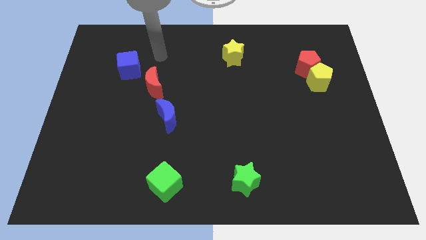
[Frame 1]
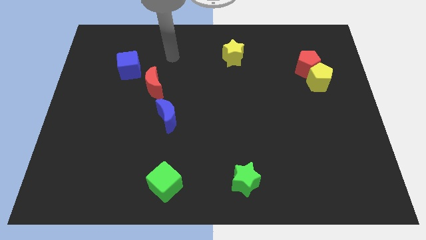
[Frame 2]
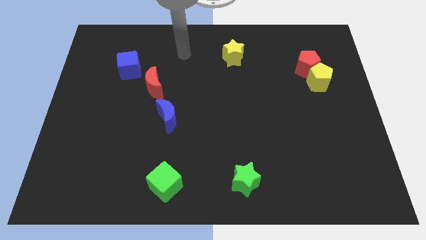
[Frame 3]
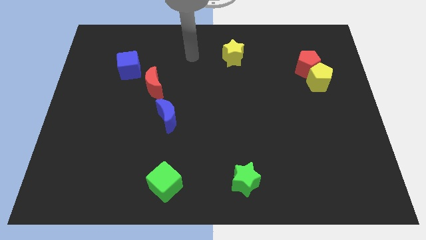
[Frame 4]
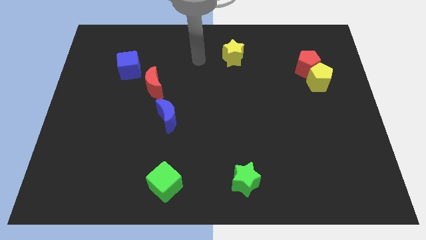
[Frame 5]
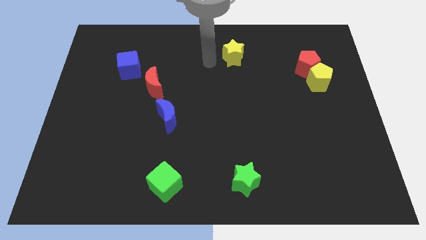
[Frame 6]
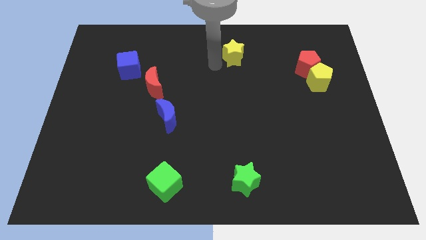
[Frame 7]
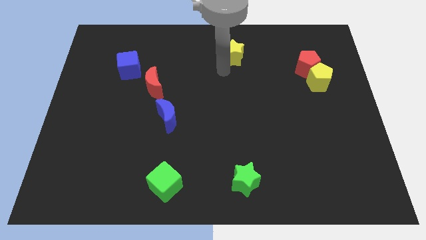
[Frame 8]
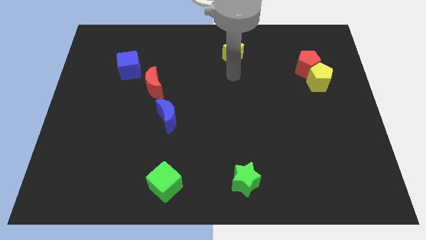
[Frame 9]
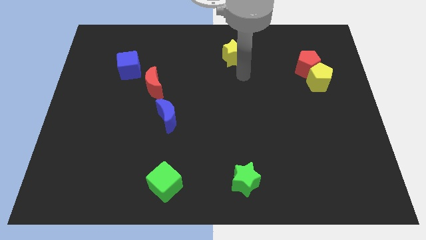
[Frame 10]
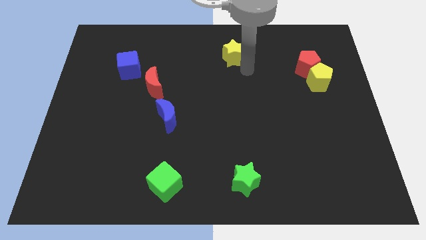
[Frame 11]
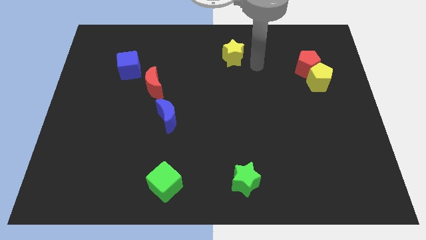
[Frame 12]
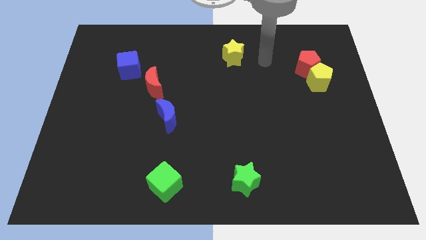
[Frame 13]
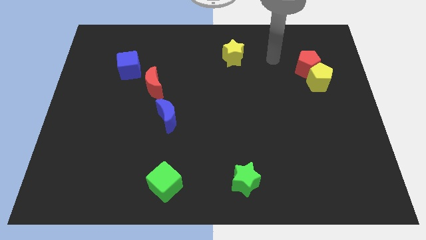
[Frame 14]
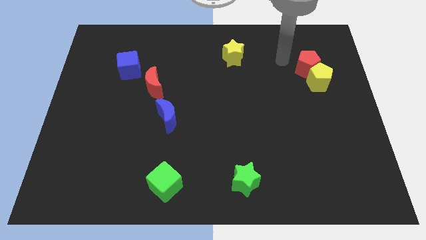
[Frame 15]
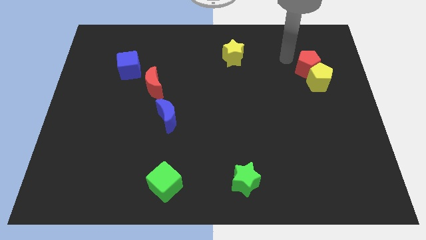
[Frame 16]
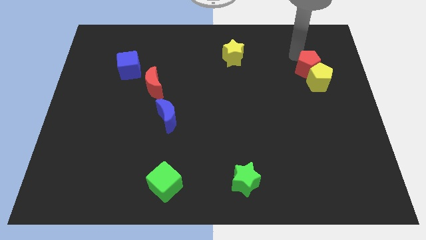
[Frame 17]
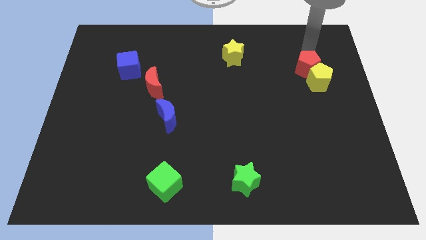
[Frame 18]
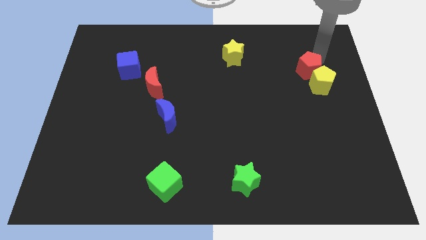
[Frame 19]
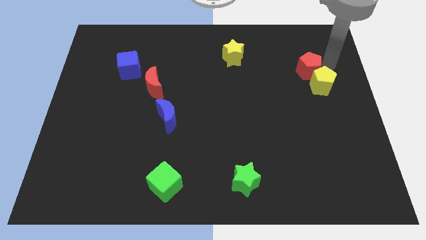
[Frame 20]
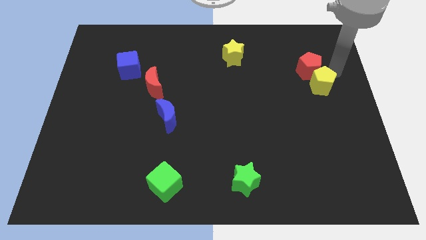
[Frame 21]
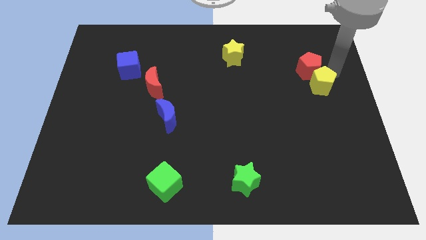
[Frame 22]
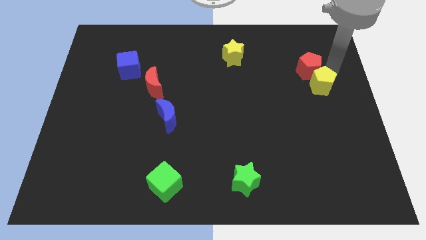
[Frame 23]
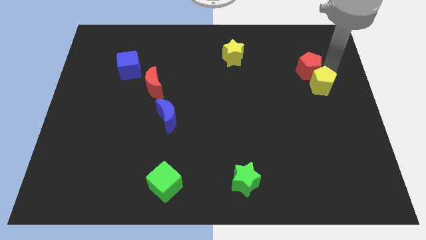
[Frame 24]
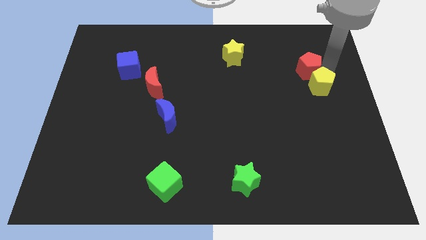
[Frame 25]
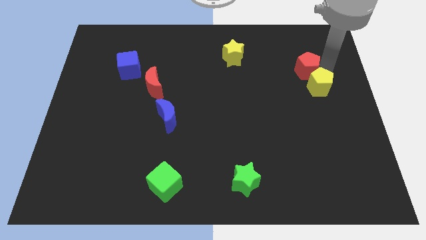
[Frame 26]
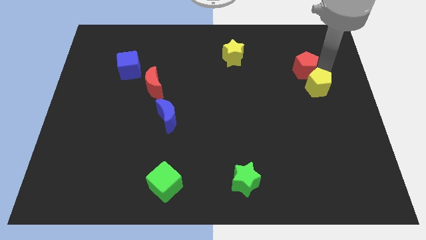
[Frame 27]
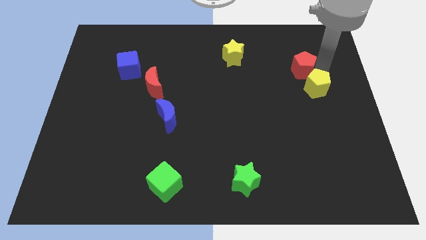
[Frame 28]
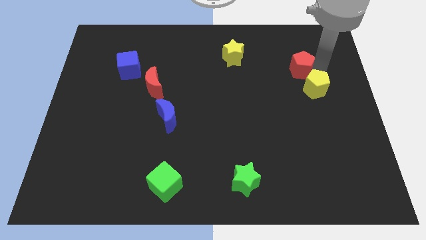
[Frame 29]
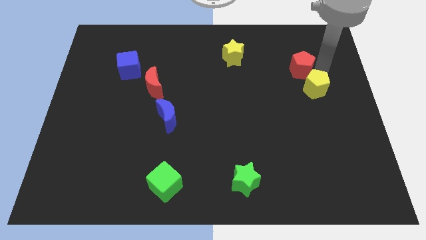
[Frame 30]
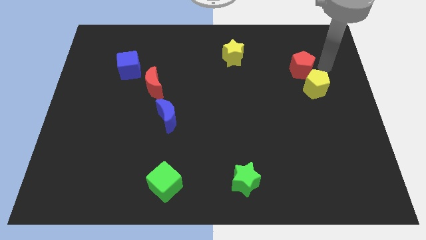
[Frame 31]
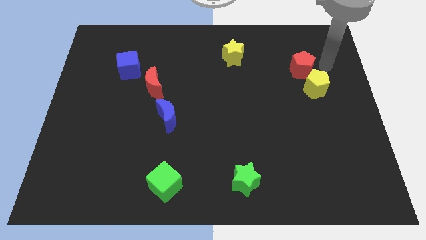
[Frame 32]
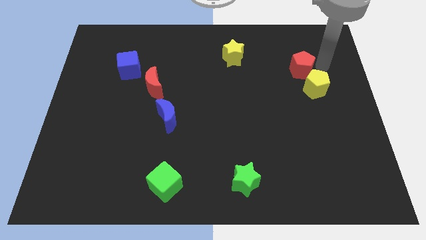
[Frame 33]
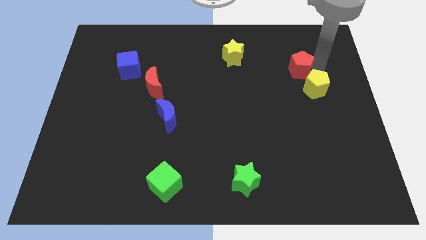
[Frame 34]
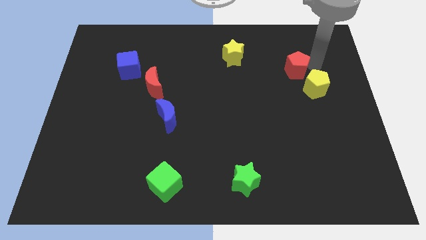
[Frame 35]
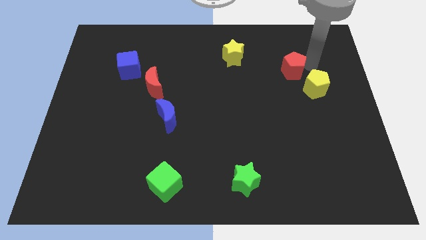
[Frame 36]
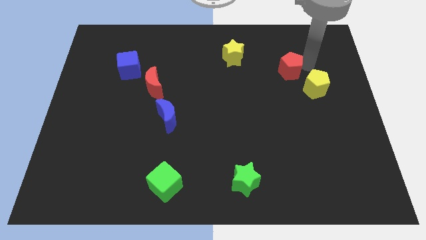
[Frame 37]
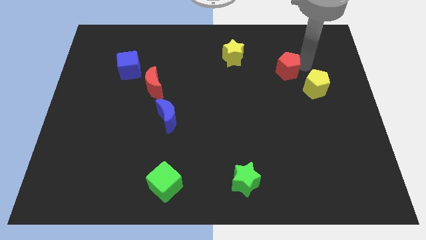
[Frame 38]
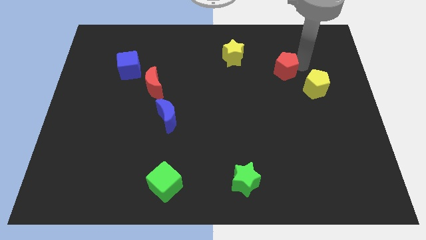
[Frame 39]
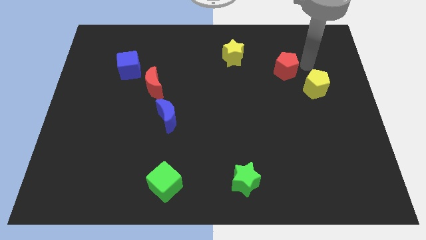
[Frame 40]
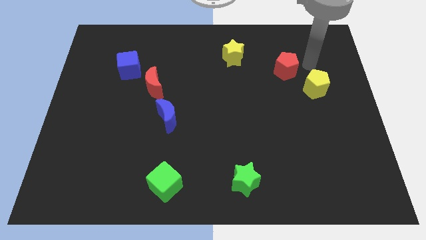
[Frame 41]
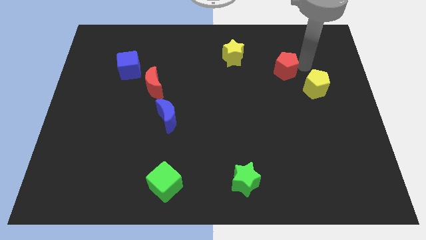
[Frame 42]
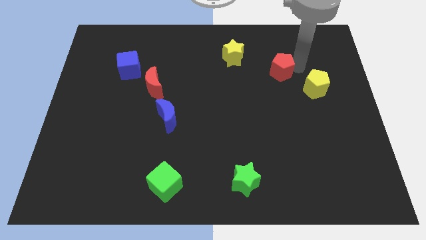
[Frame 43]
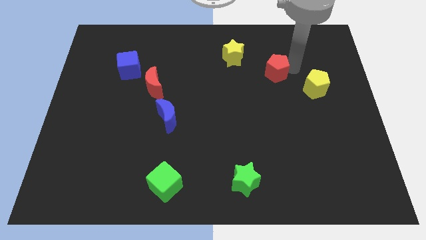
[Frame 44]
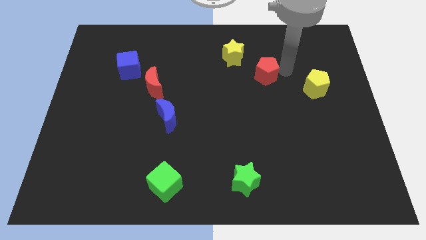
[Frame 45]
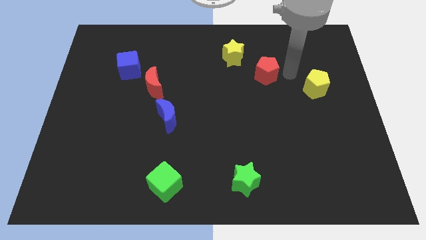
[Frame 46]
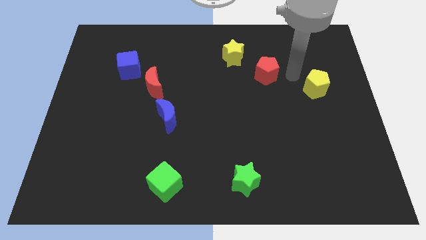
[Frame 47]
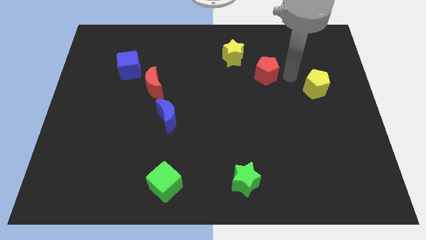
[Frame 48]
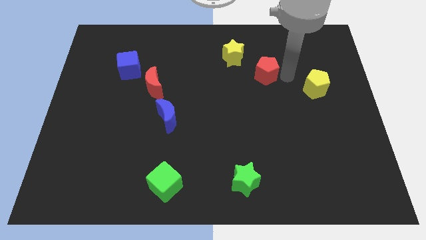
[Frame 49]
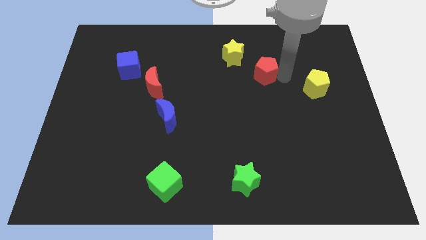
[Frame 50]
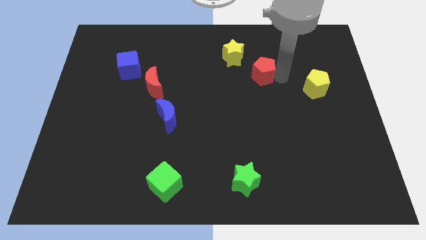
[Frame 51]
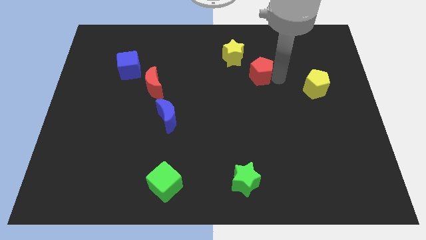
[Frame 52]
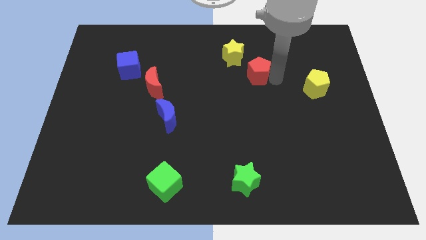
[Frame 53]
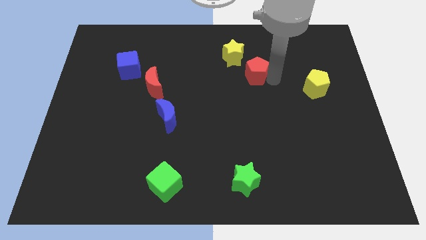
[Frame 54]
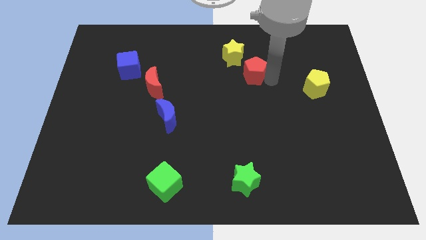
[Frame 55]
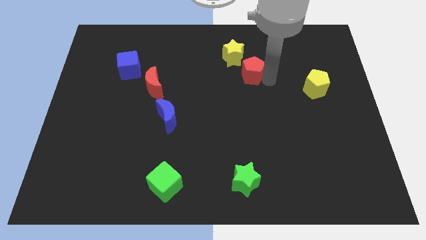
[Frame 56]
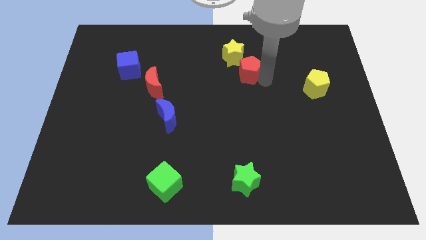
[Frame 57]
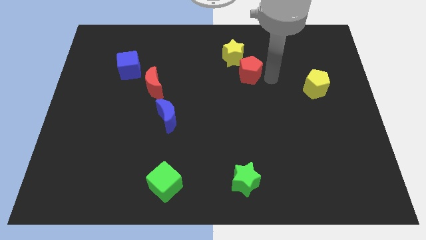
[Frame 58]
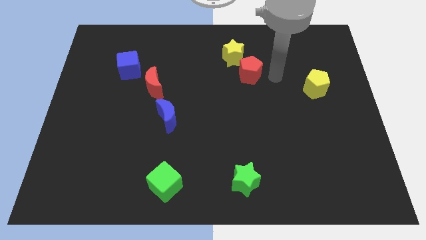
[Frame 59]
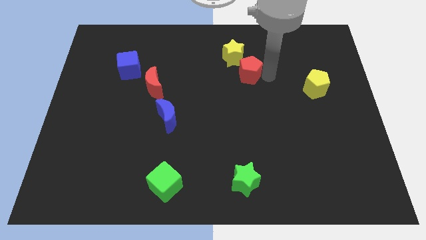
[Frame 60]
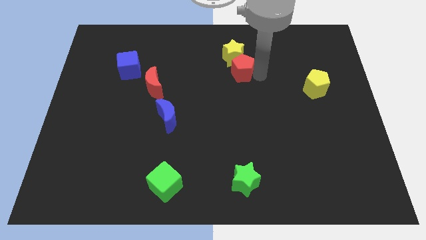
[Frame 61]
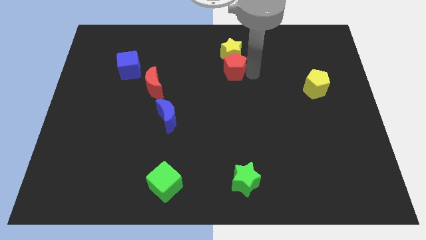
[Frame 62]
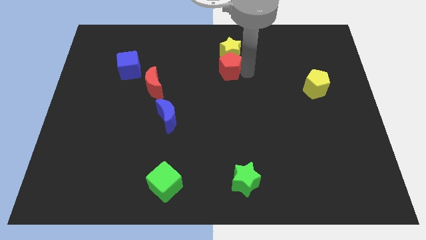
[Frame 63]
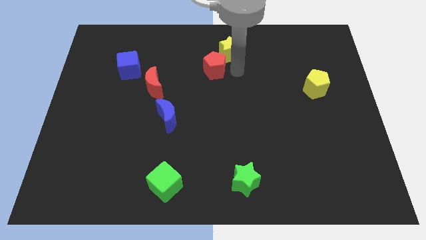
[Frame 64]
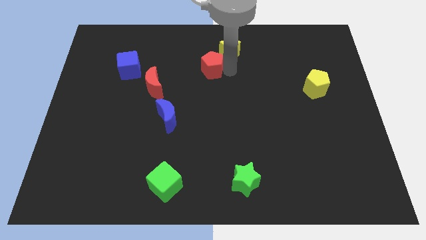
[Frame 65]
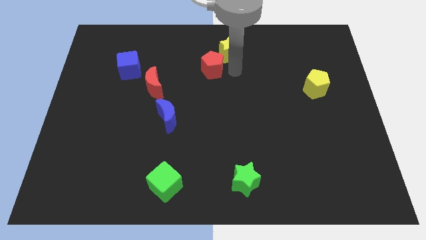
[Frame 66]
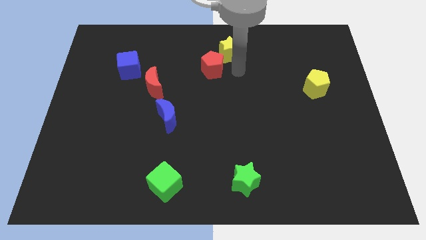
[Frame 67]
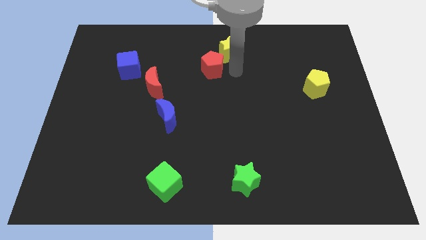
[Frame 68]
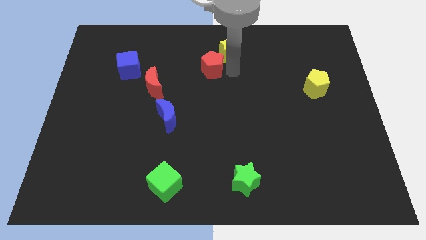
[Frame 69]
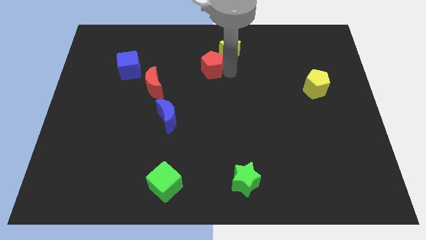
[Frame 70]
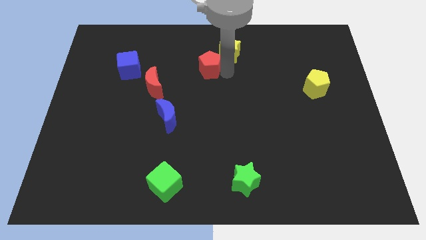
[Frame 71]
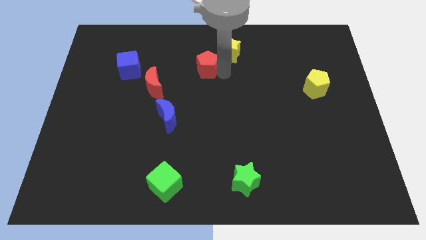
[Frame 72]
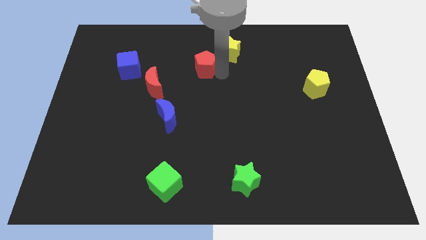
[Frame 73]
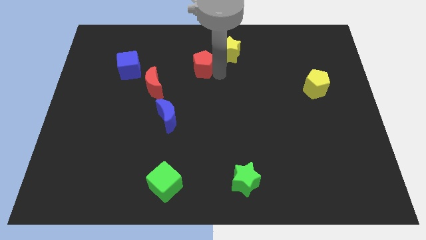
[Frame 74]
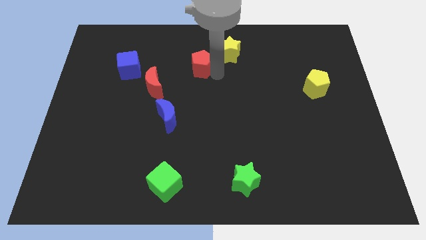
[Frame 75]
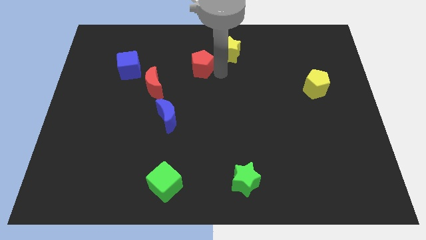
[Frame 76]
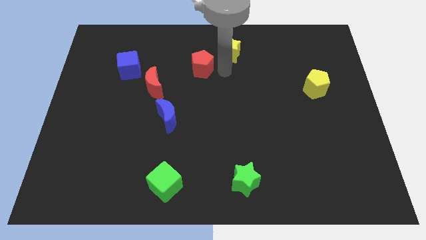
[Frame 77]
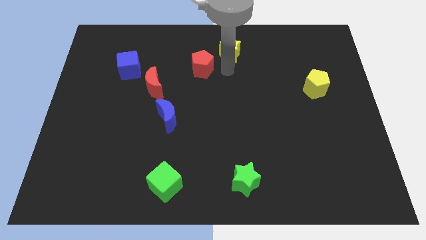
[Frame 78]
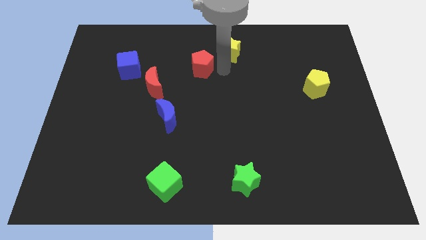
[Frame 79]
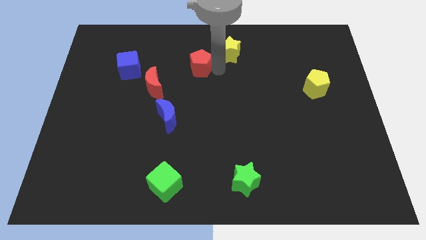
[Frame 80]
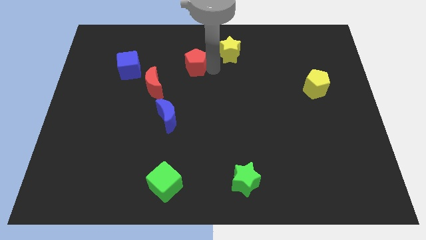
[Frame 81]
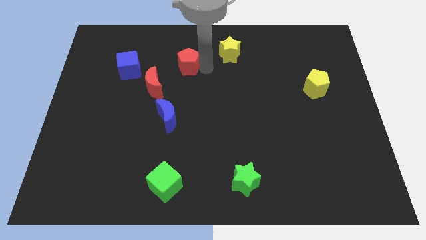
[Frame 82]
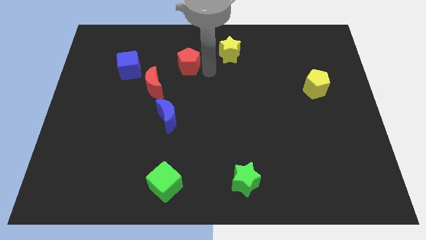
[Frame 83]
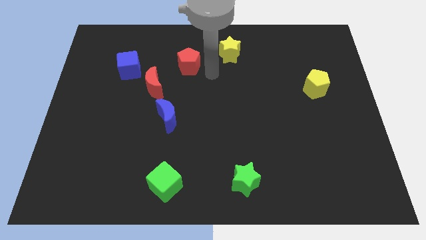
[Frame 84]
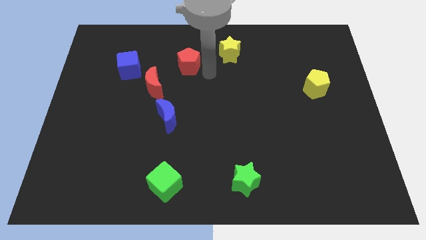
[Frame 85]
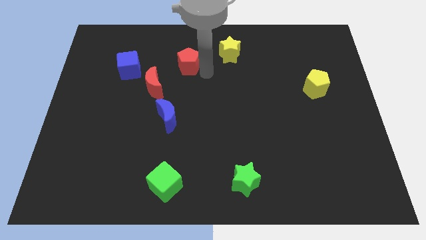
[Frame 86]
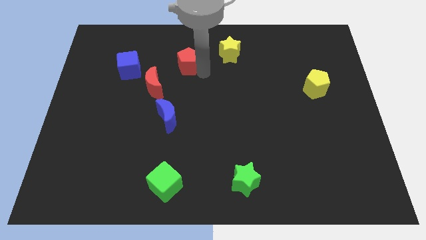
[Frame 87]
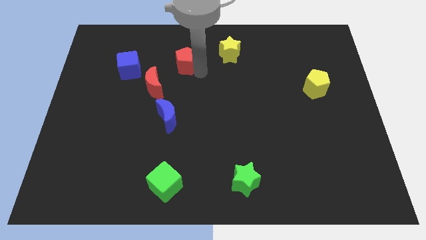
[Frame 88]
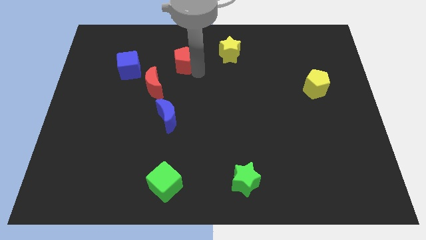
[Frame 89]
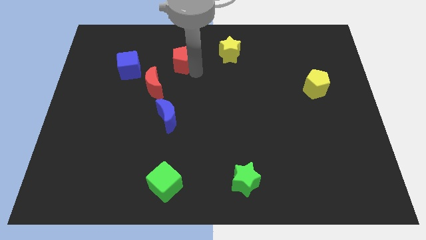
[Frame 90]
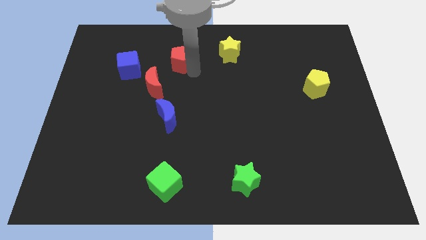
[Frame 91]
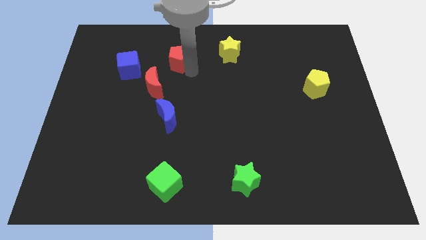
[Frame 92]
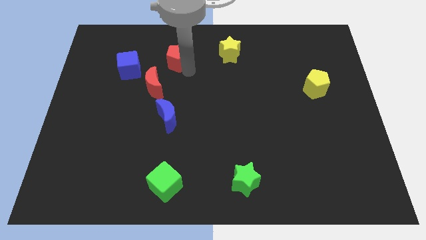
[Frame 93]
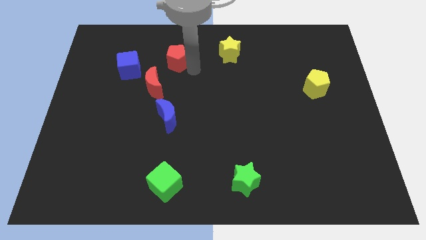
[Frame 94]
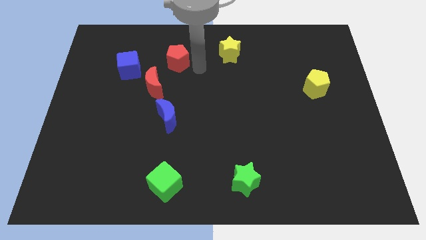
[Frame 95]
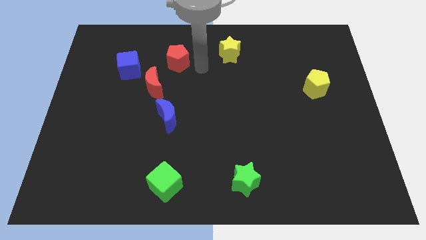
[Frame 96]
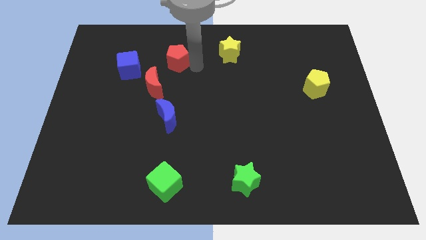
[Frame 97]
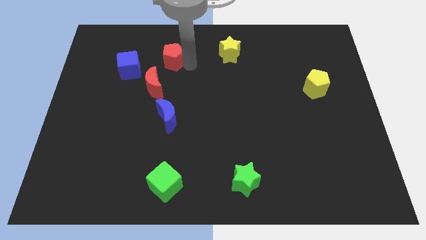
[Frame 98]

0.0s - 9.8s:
move the red pentagon above the red moon
